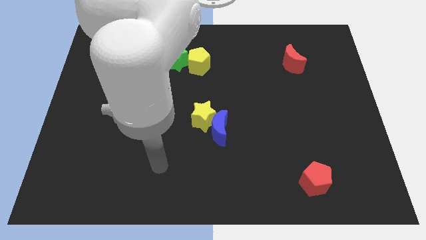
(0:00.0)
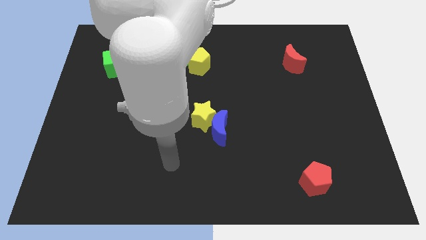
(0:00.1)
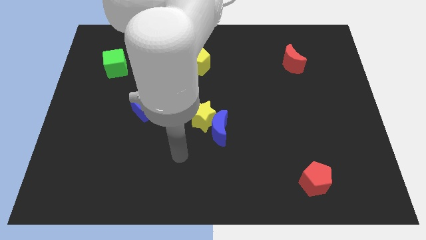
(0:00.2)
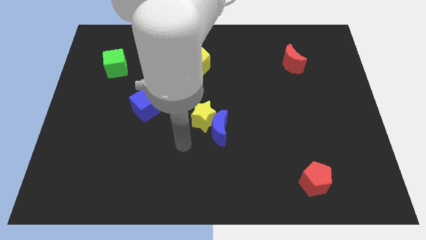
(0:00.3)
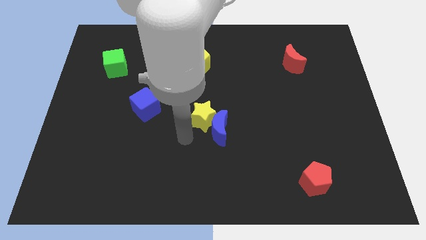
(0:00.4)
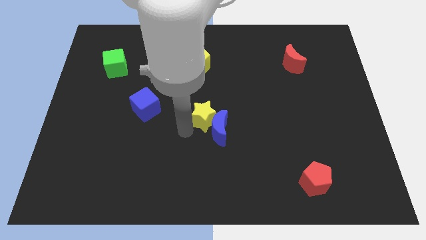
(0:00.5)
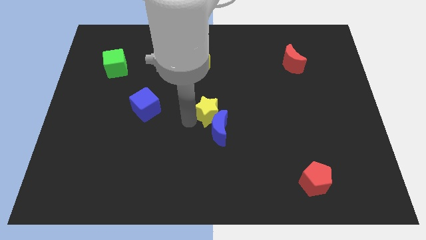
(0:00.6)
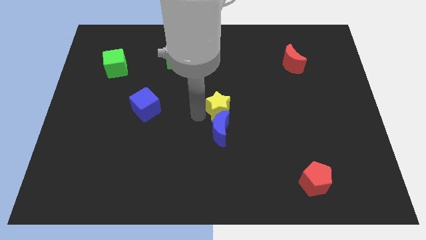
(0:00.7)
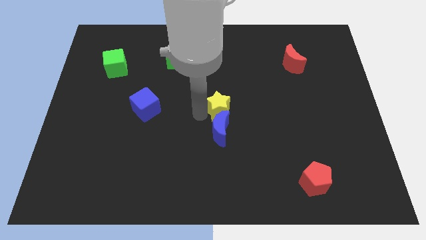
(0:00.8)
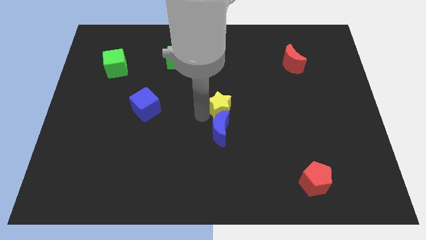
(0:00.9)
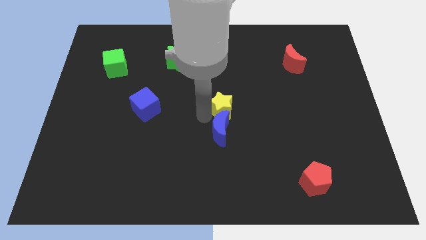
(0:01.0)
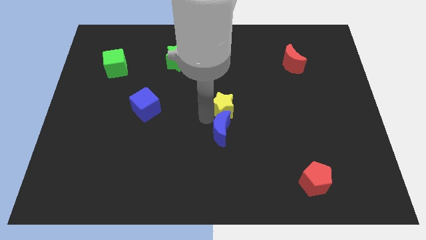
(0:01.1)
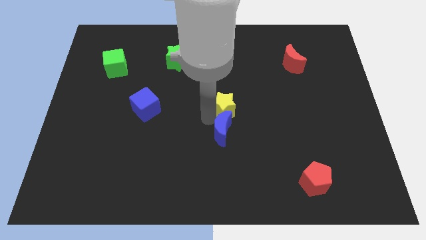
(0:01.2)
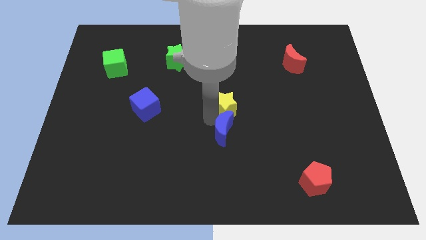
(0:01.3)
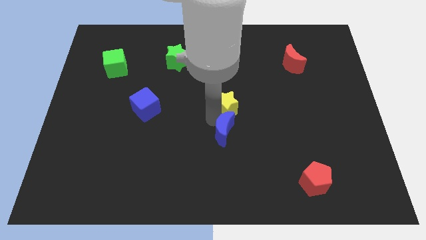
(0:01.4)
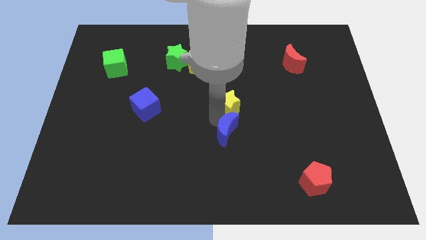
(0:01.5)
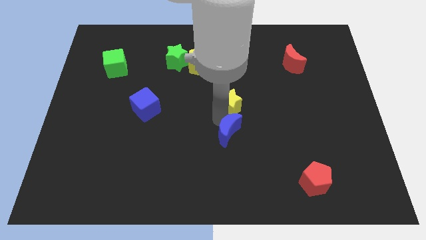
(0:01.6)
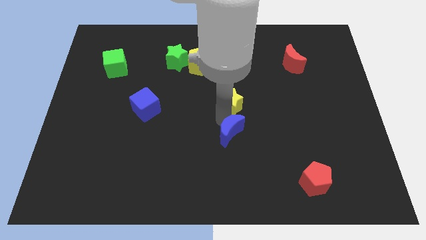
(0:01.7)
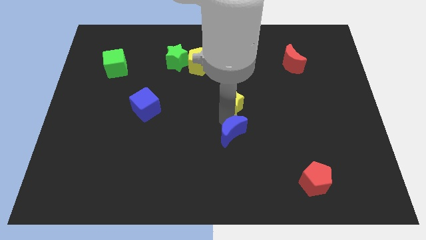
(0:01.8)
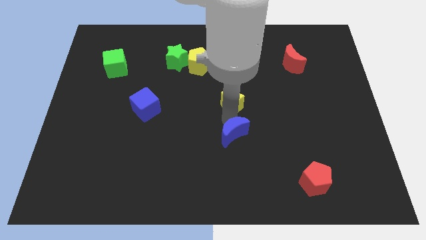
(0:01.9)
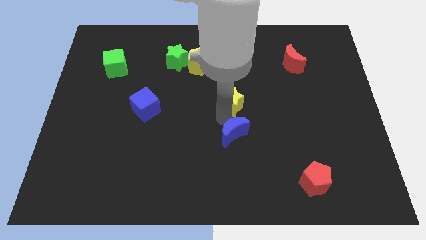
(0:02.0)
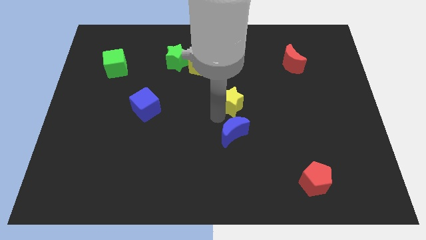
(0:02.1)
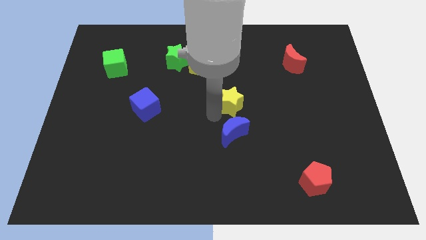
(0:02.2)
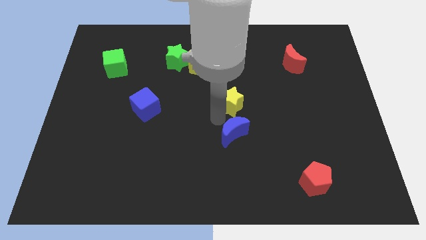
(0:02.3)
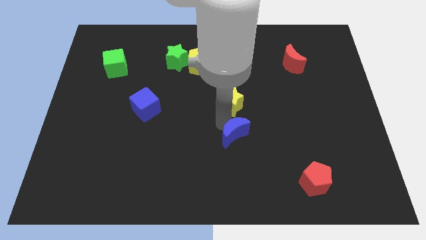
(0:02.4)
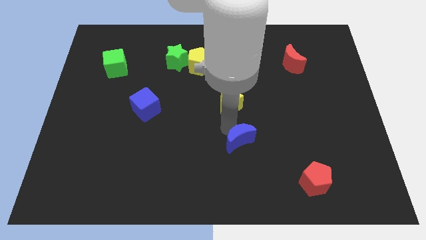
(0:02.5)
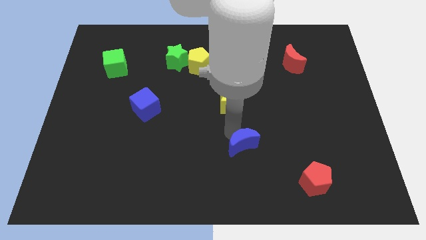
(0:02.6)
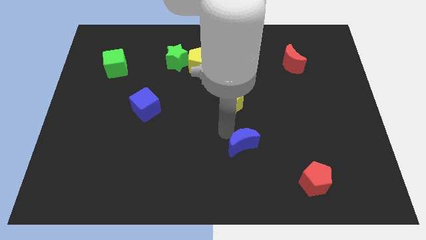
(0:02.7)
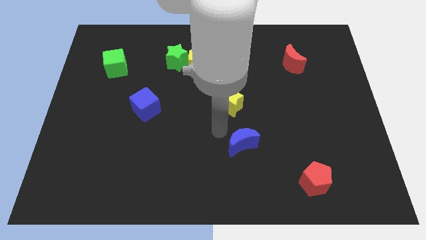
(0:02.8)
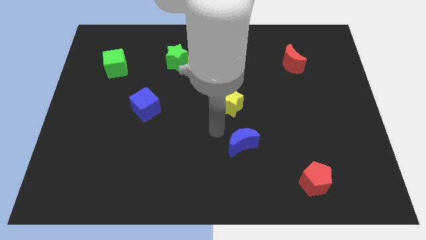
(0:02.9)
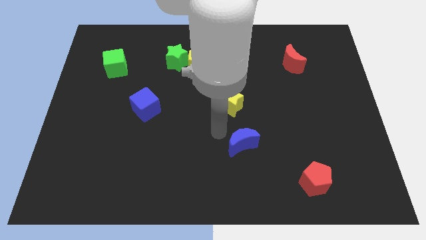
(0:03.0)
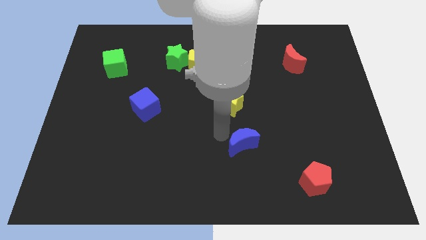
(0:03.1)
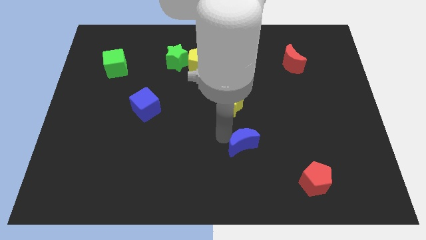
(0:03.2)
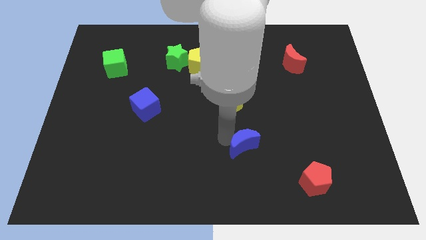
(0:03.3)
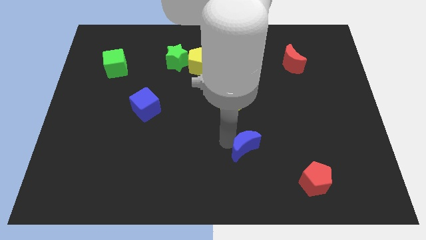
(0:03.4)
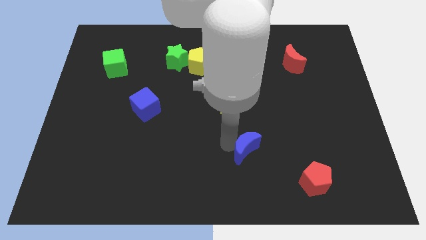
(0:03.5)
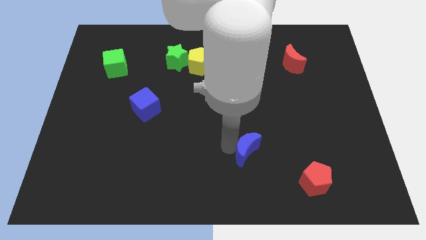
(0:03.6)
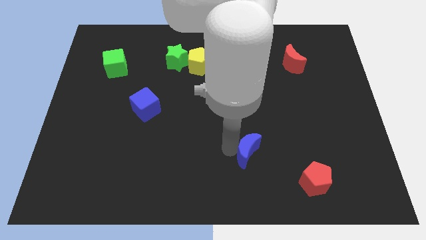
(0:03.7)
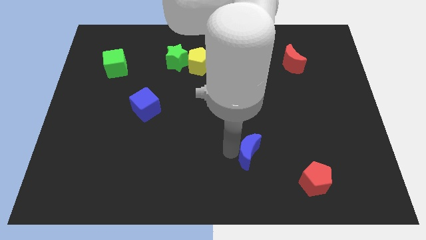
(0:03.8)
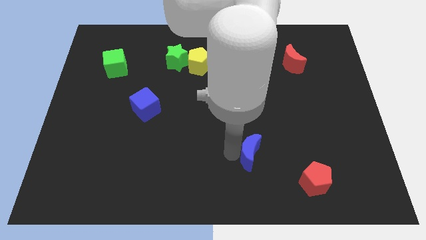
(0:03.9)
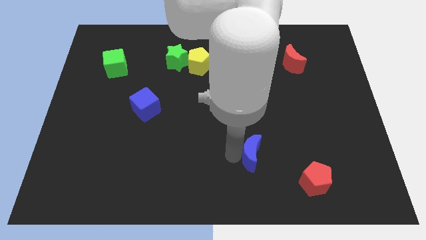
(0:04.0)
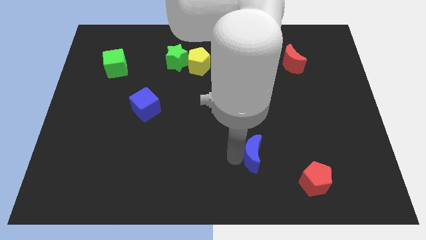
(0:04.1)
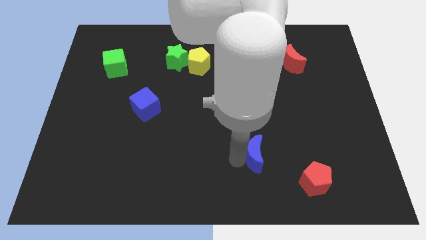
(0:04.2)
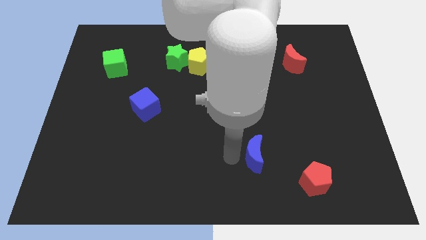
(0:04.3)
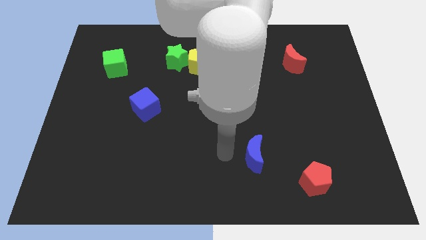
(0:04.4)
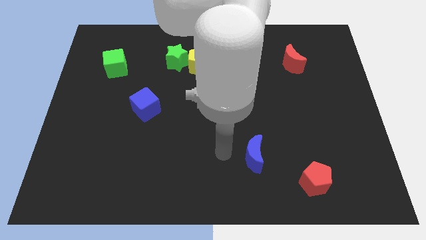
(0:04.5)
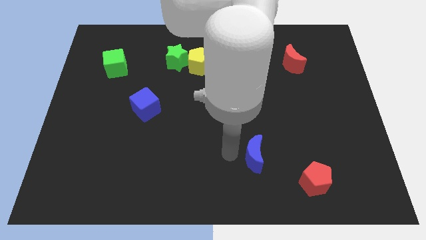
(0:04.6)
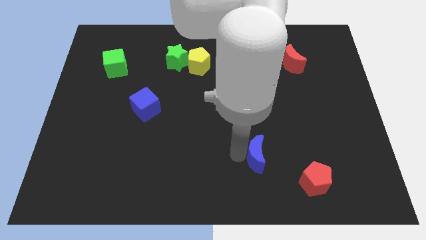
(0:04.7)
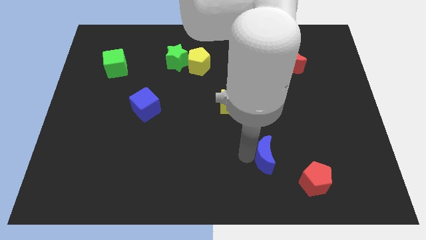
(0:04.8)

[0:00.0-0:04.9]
put the blue moon to the top left side of the red pentagon

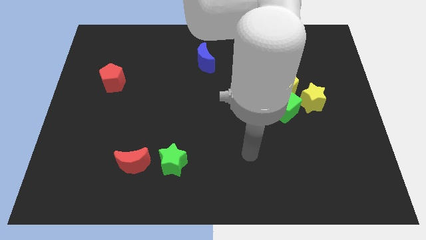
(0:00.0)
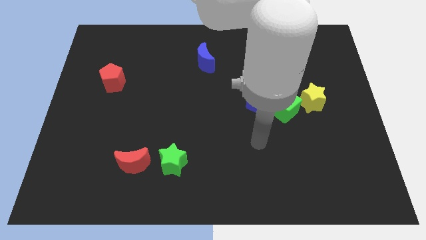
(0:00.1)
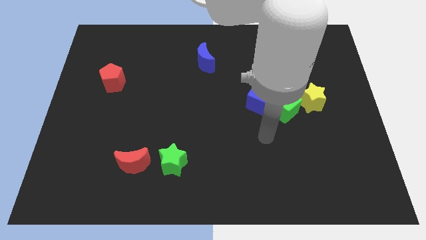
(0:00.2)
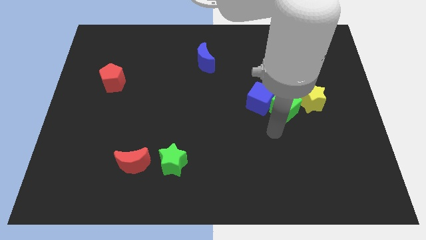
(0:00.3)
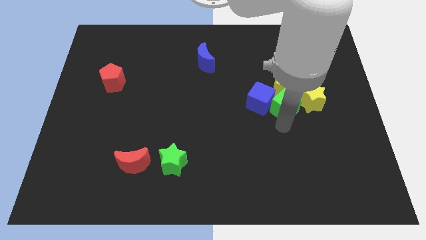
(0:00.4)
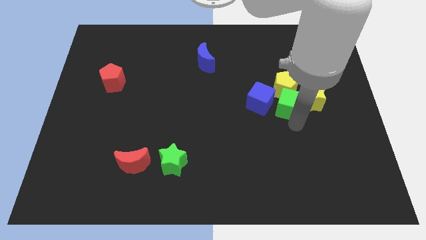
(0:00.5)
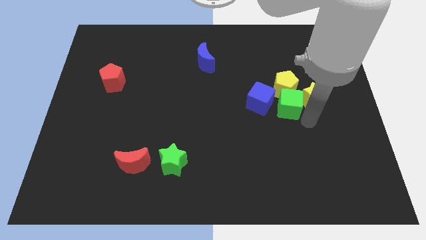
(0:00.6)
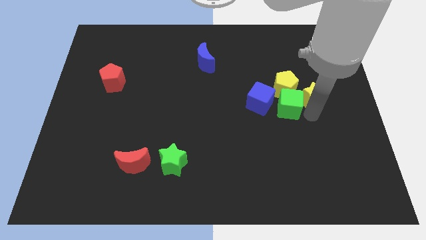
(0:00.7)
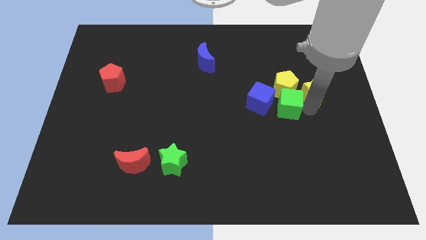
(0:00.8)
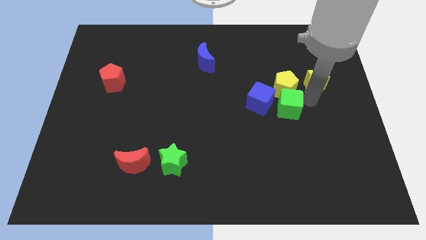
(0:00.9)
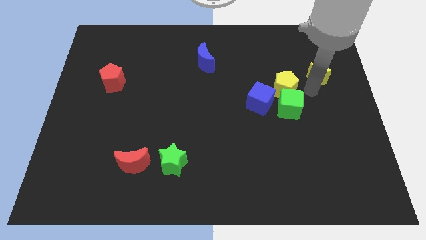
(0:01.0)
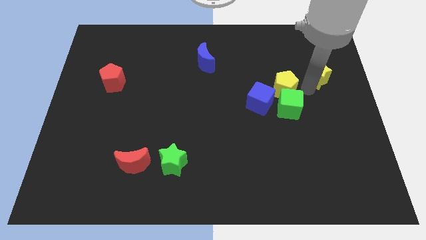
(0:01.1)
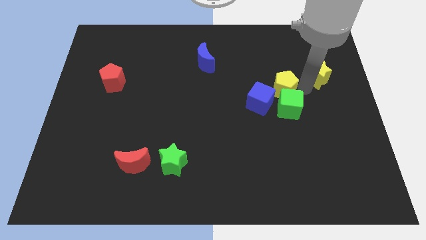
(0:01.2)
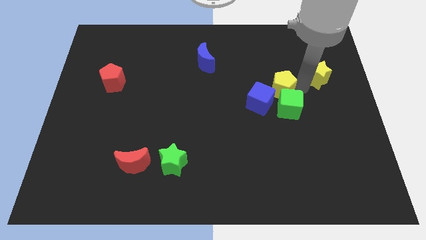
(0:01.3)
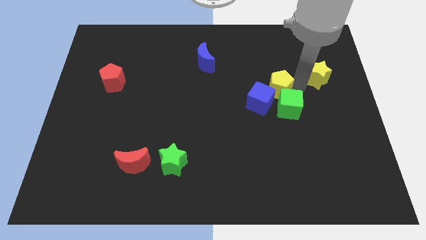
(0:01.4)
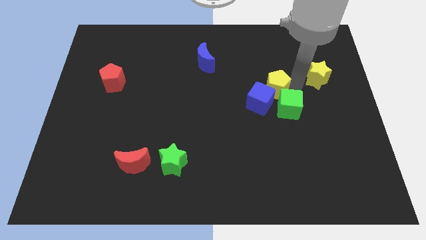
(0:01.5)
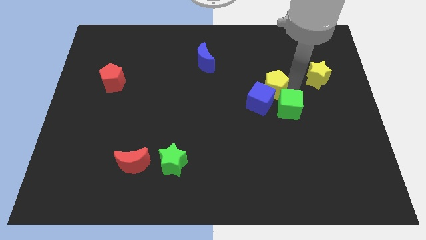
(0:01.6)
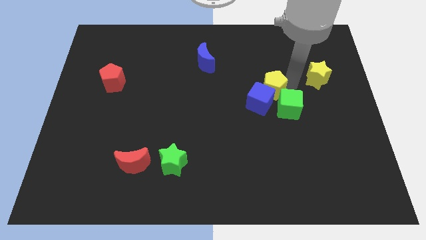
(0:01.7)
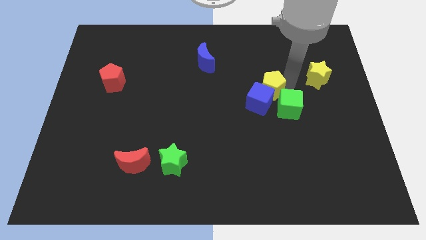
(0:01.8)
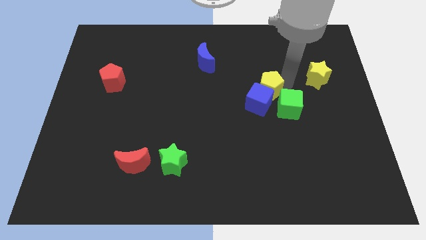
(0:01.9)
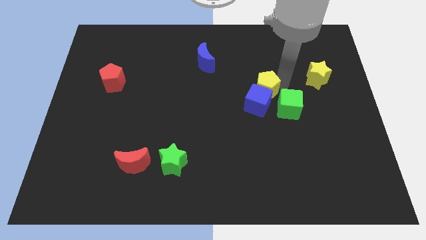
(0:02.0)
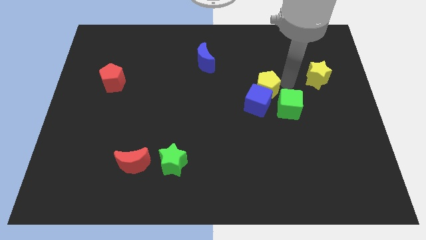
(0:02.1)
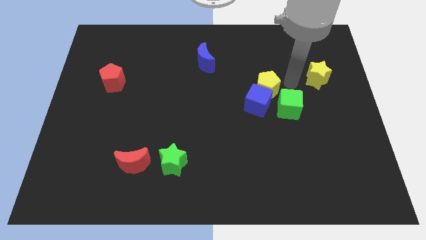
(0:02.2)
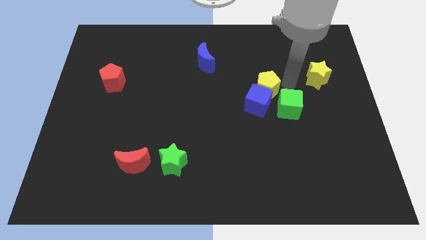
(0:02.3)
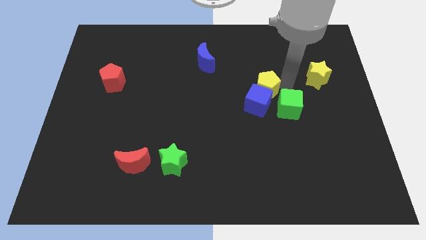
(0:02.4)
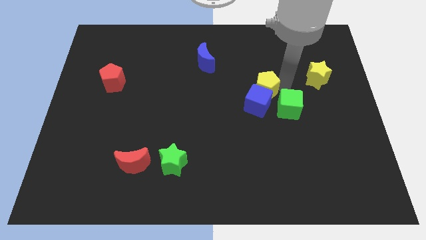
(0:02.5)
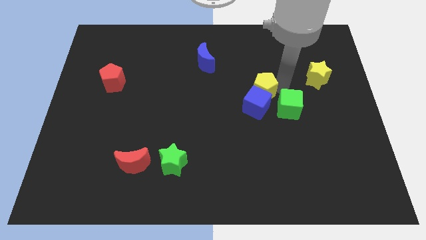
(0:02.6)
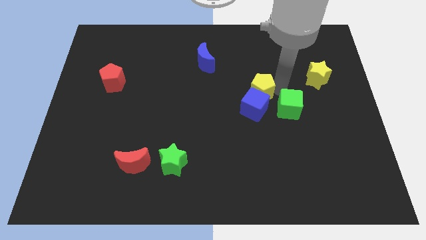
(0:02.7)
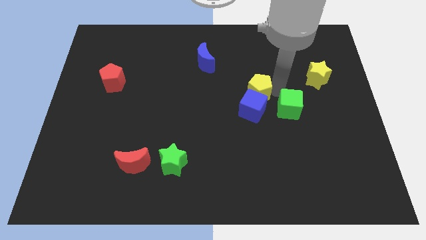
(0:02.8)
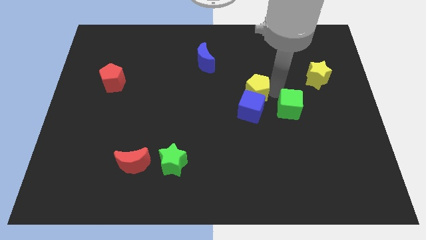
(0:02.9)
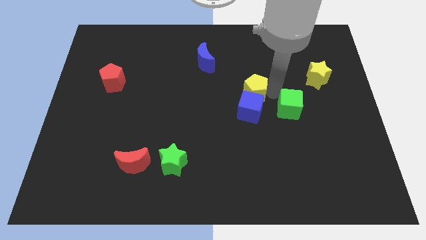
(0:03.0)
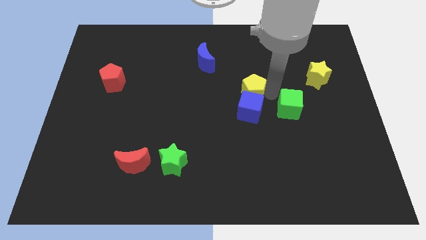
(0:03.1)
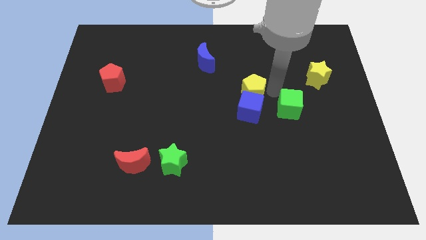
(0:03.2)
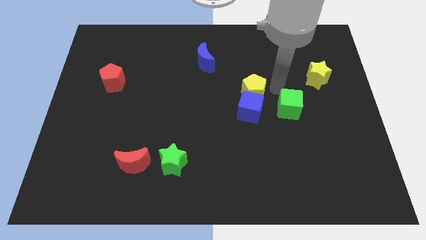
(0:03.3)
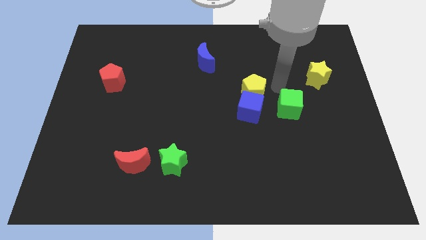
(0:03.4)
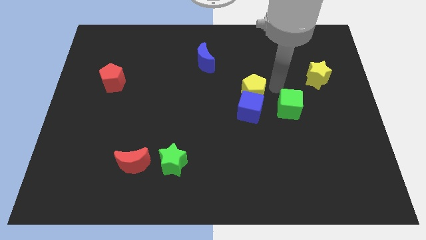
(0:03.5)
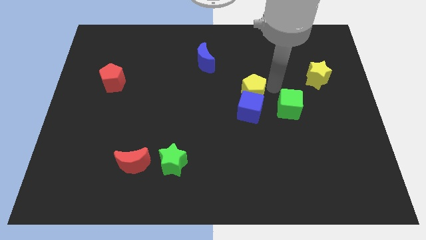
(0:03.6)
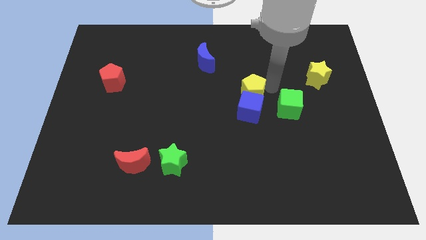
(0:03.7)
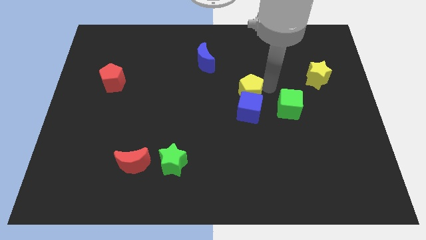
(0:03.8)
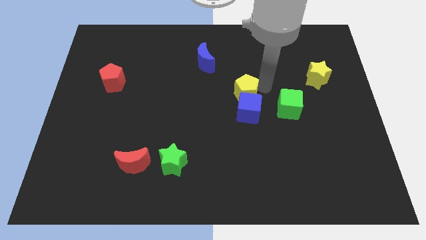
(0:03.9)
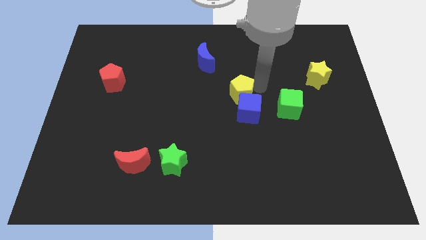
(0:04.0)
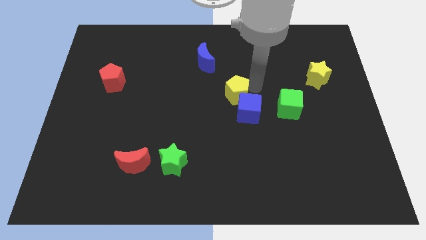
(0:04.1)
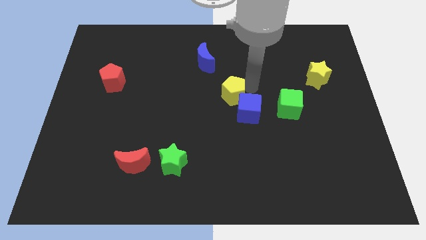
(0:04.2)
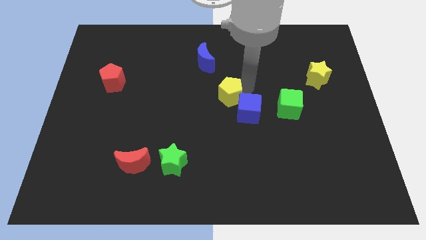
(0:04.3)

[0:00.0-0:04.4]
put the yellow pentagon left of the blue cube
